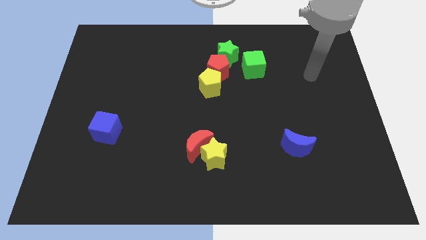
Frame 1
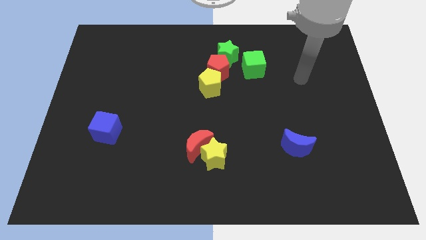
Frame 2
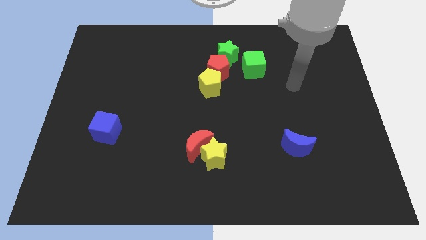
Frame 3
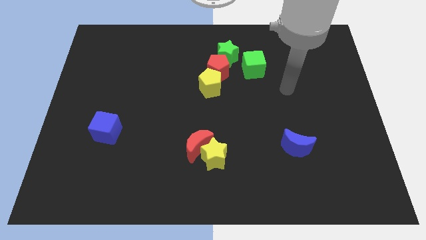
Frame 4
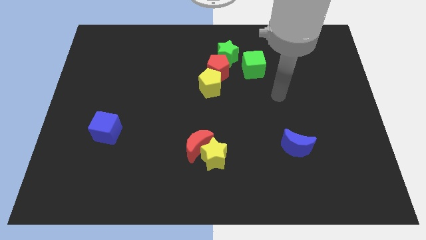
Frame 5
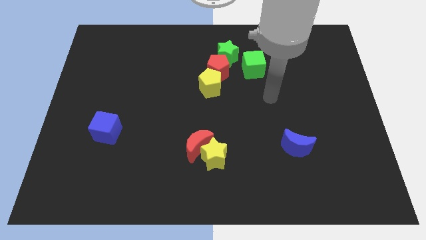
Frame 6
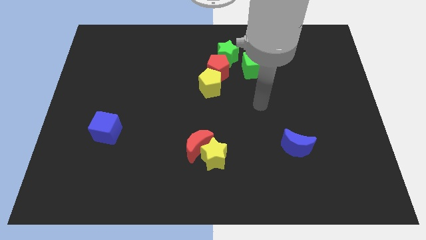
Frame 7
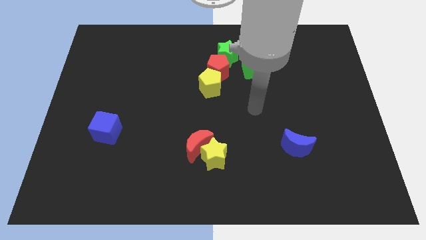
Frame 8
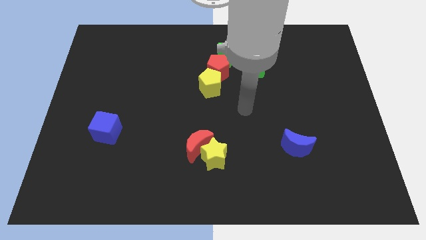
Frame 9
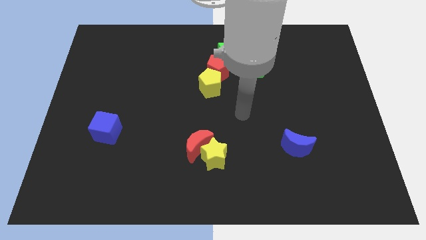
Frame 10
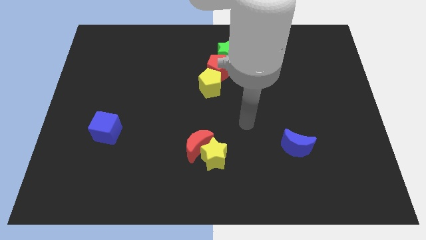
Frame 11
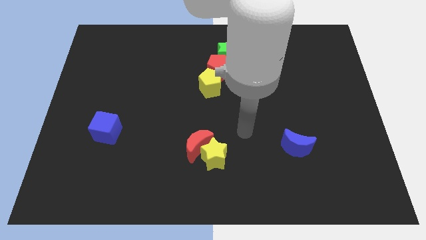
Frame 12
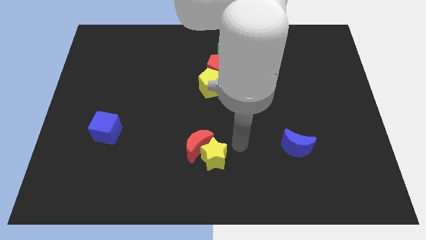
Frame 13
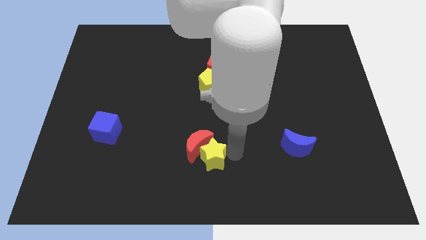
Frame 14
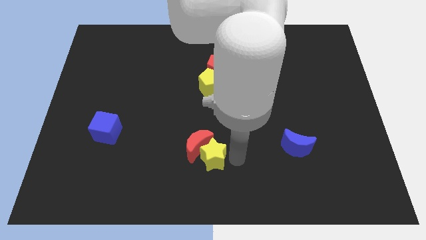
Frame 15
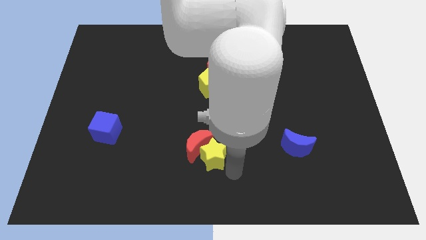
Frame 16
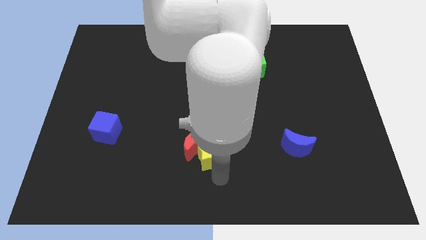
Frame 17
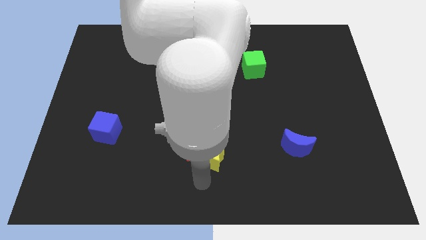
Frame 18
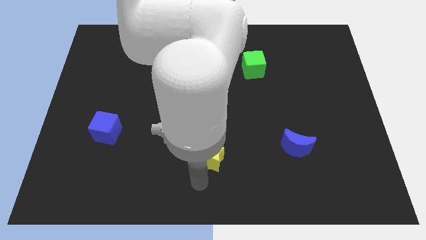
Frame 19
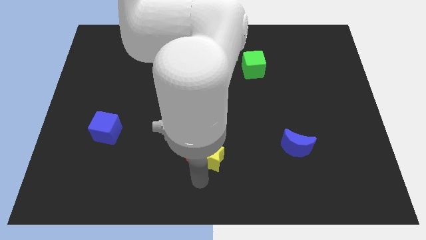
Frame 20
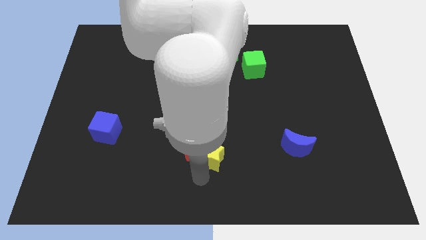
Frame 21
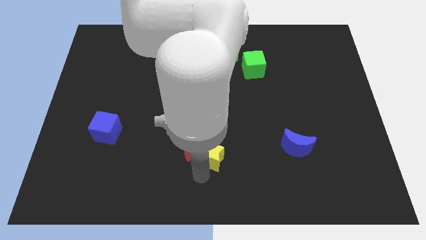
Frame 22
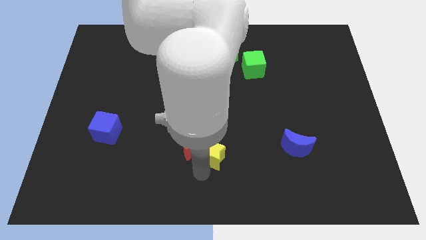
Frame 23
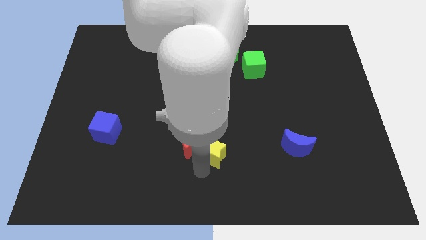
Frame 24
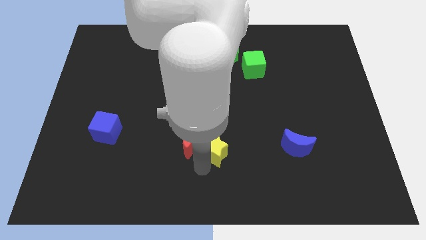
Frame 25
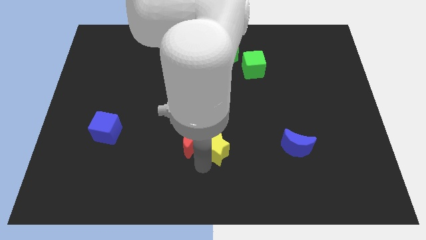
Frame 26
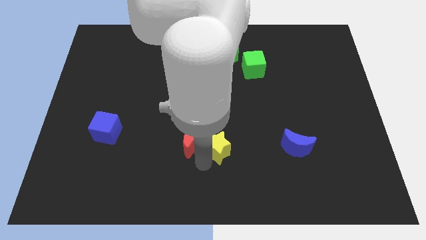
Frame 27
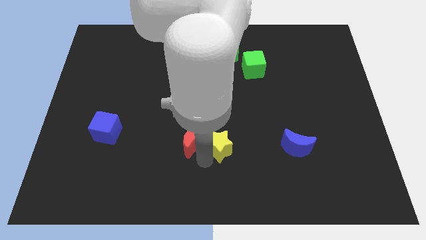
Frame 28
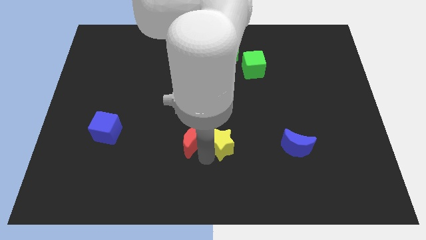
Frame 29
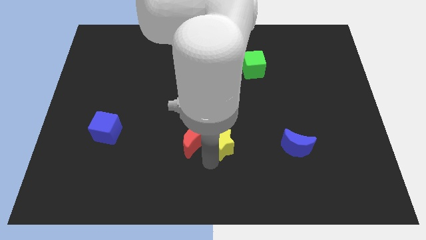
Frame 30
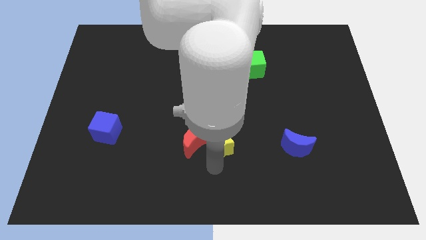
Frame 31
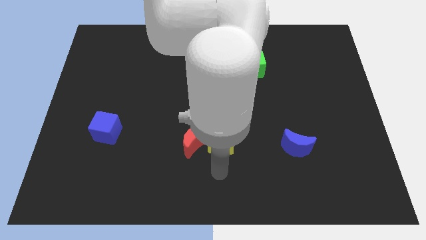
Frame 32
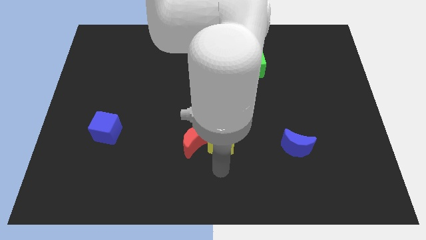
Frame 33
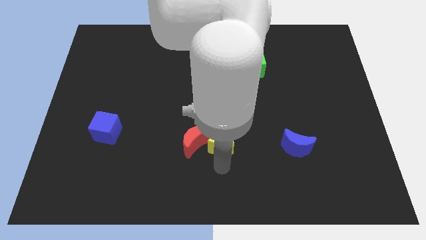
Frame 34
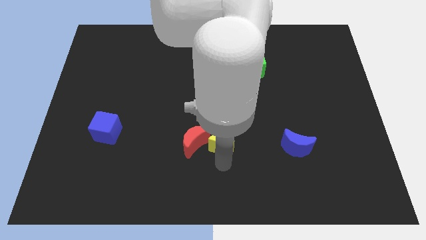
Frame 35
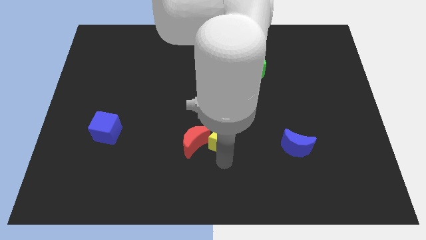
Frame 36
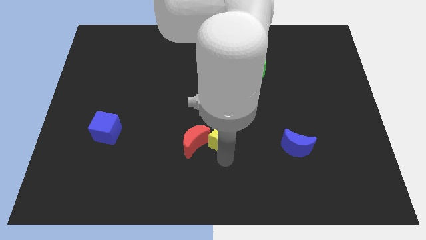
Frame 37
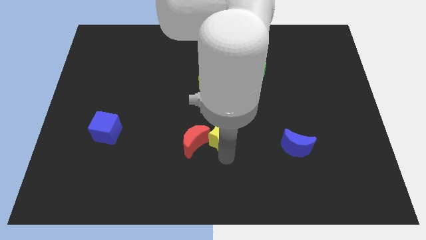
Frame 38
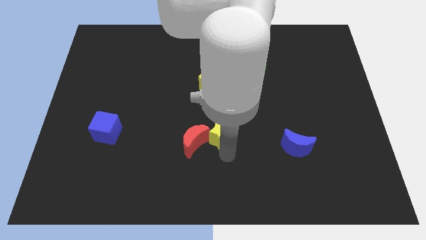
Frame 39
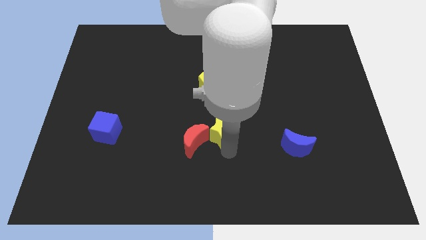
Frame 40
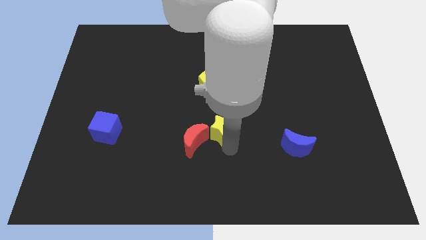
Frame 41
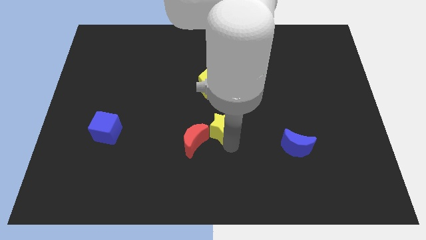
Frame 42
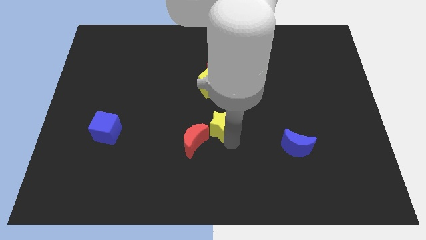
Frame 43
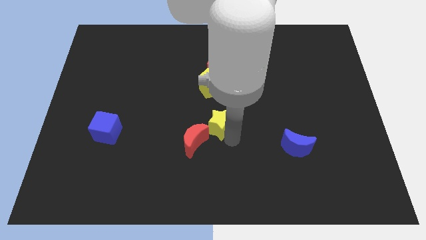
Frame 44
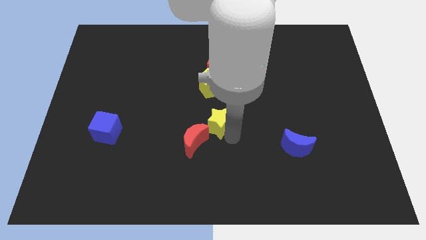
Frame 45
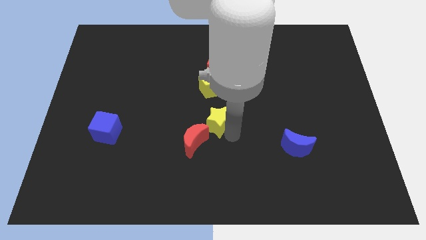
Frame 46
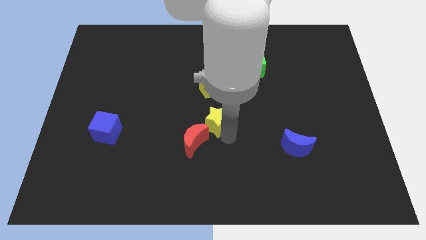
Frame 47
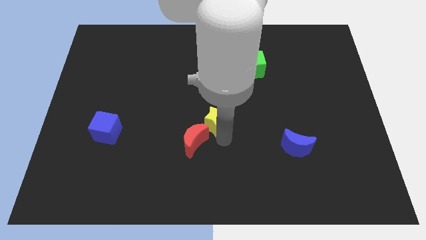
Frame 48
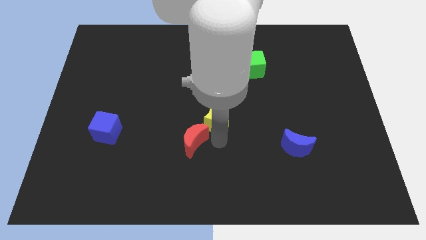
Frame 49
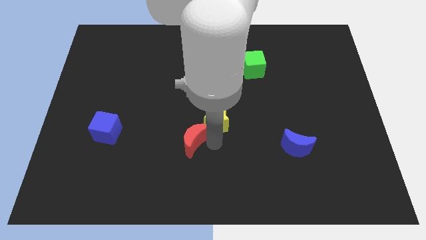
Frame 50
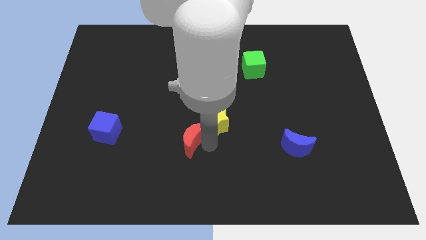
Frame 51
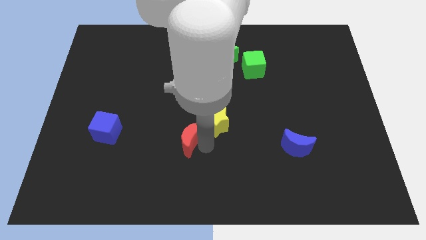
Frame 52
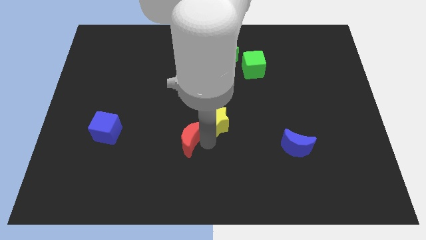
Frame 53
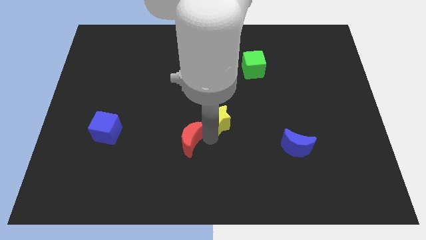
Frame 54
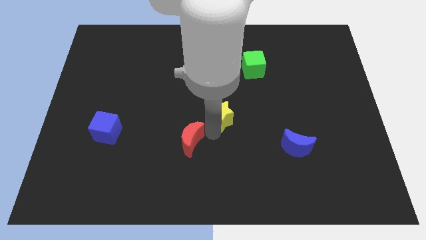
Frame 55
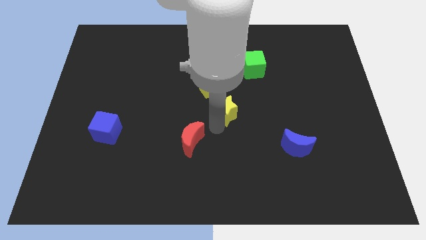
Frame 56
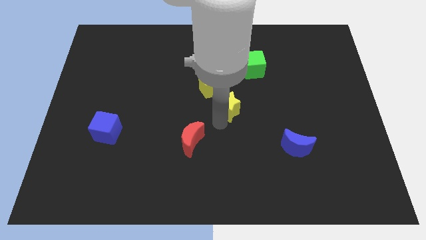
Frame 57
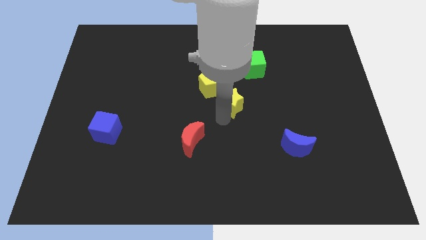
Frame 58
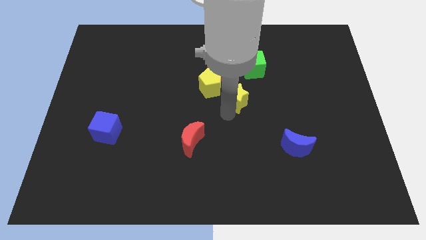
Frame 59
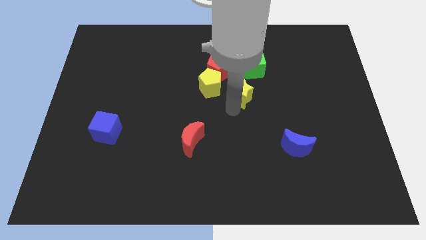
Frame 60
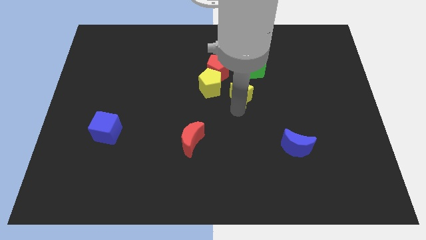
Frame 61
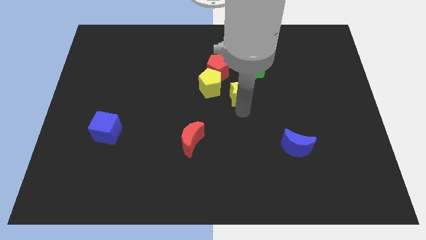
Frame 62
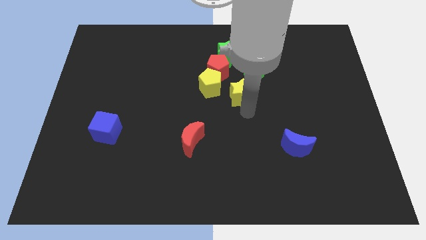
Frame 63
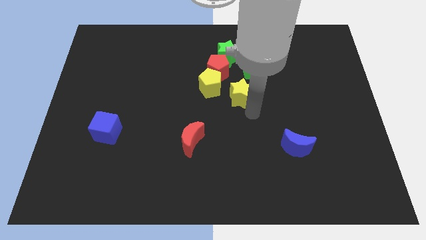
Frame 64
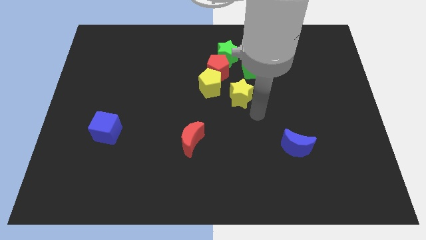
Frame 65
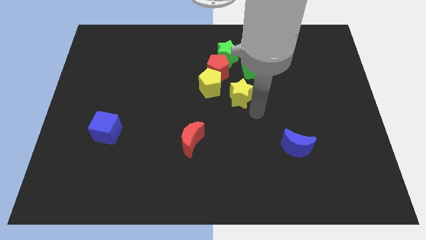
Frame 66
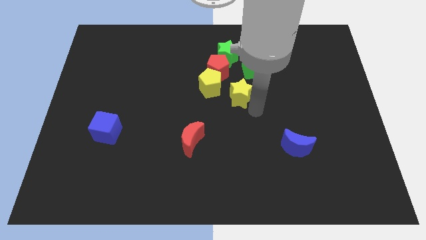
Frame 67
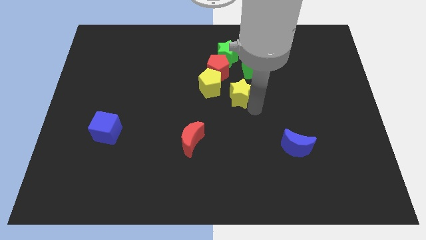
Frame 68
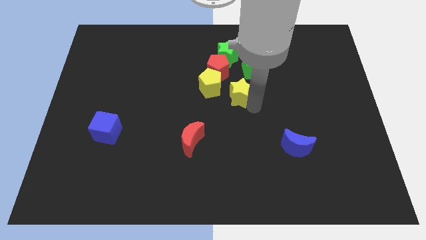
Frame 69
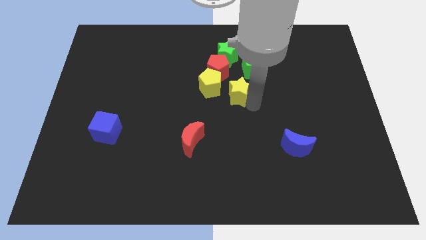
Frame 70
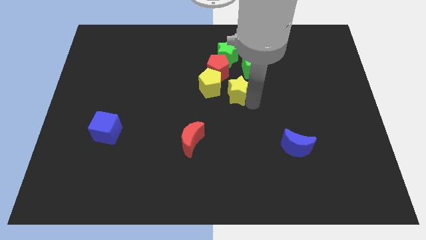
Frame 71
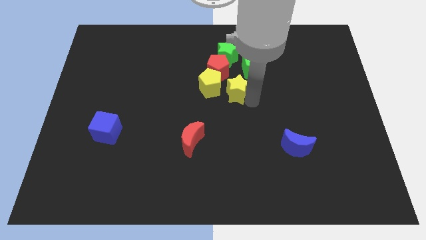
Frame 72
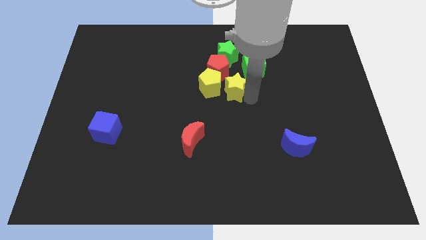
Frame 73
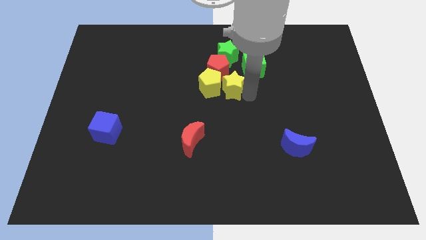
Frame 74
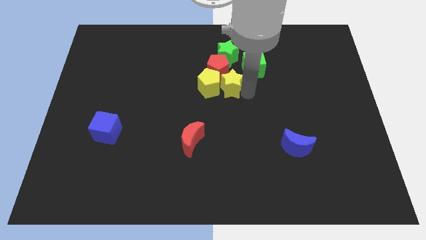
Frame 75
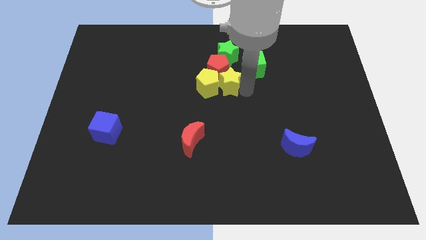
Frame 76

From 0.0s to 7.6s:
move the yellow star towards the red pentagon

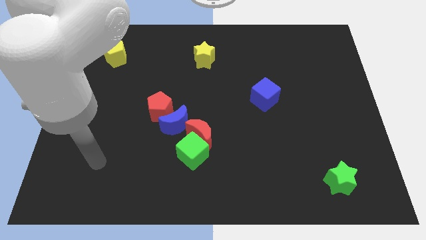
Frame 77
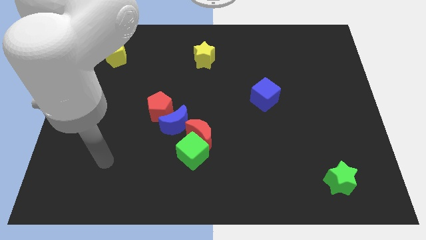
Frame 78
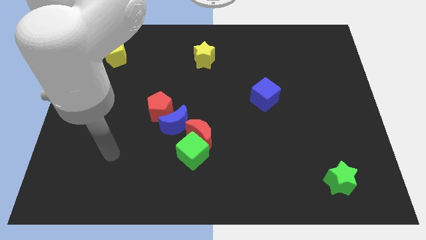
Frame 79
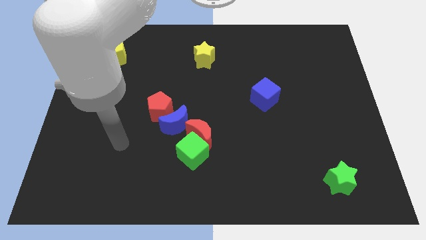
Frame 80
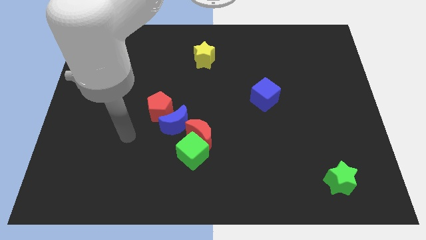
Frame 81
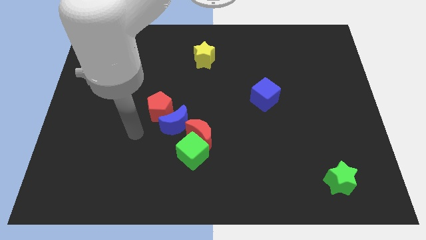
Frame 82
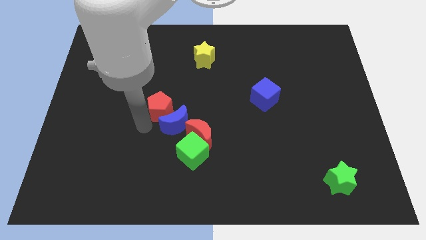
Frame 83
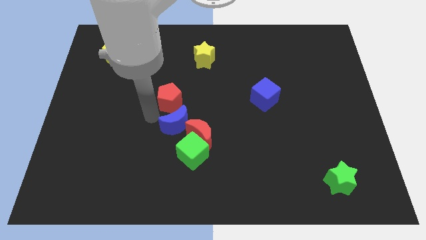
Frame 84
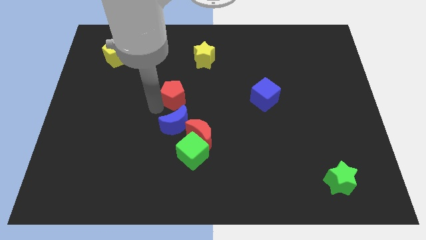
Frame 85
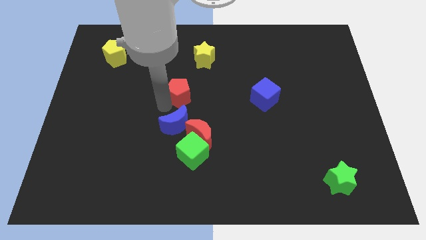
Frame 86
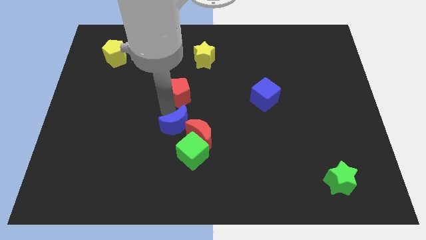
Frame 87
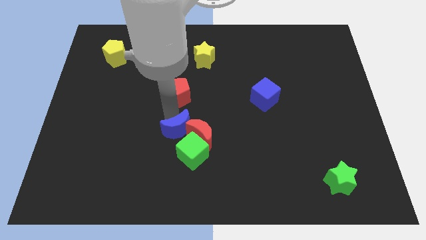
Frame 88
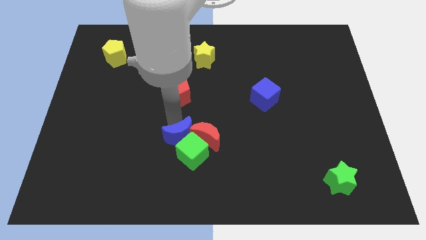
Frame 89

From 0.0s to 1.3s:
move the blue moon close to the green cube
